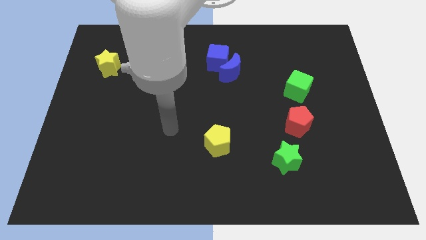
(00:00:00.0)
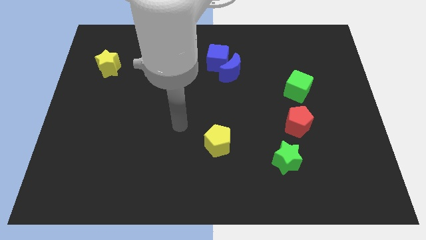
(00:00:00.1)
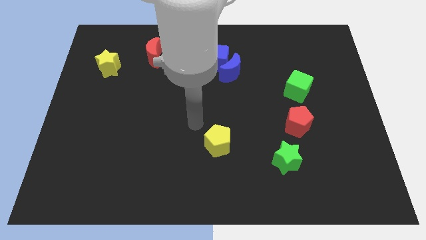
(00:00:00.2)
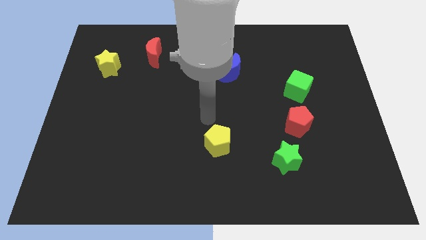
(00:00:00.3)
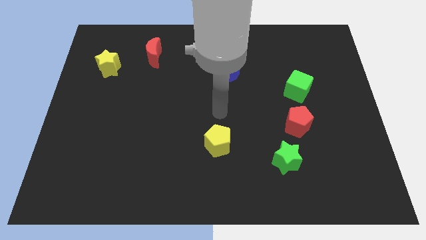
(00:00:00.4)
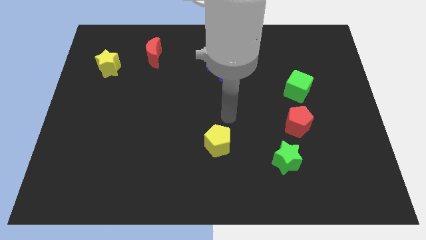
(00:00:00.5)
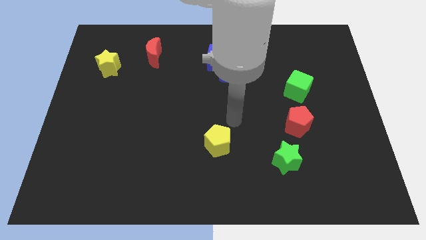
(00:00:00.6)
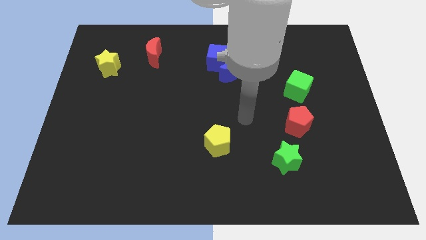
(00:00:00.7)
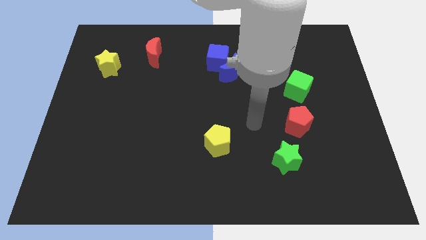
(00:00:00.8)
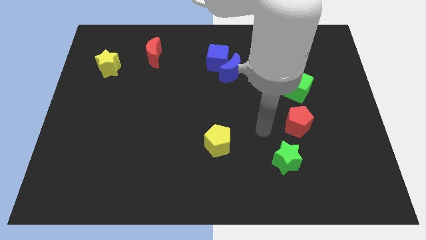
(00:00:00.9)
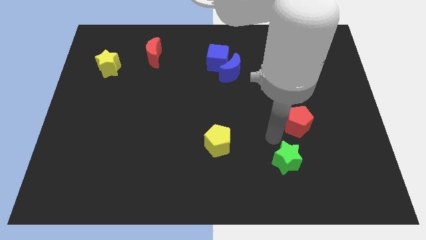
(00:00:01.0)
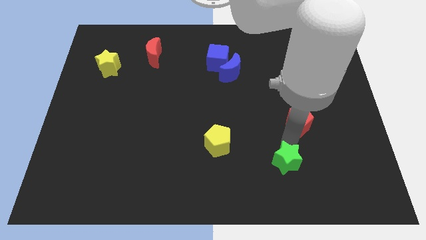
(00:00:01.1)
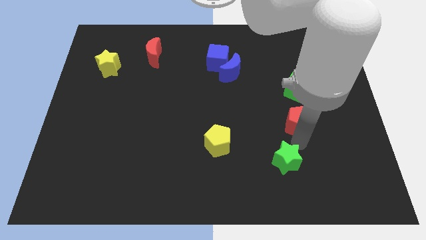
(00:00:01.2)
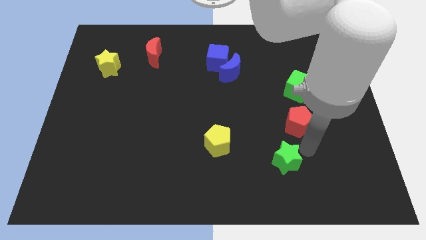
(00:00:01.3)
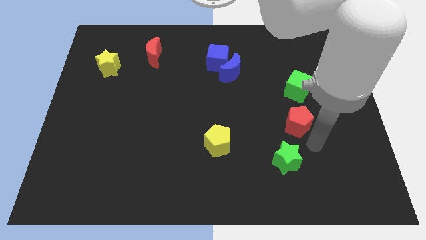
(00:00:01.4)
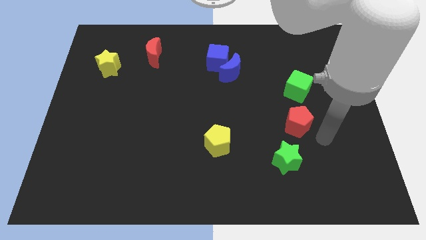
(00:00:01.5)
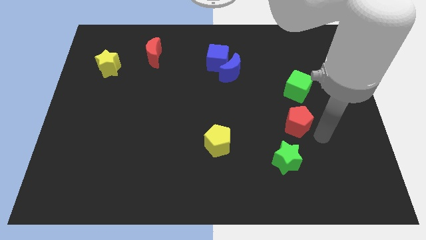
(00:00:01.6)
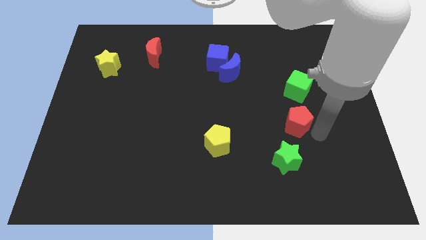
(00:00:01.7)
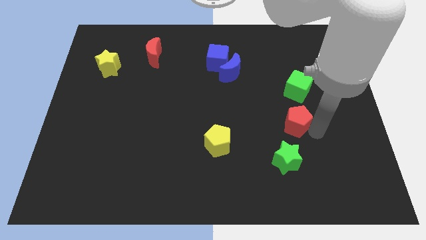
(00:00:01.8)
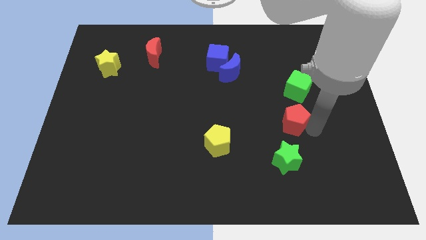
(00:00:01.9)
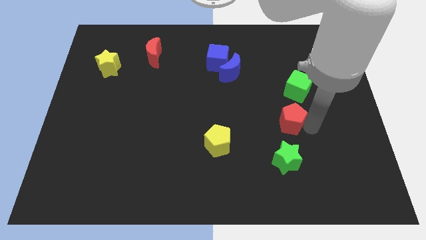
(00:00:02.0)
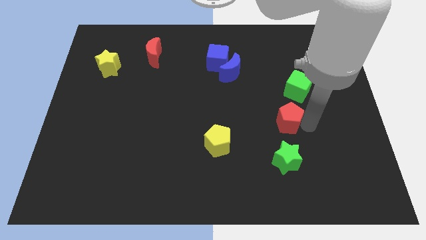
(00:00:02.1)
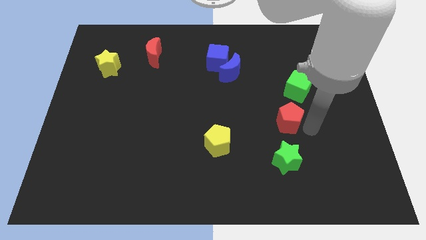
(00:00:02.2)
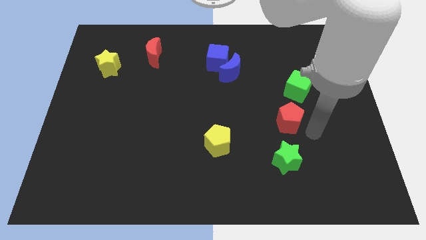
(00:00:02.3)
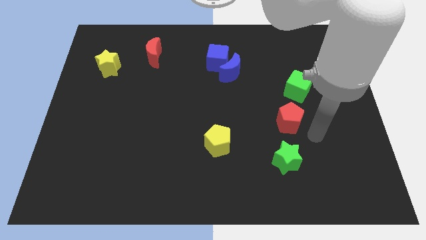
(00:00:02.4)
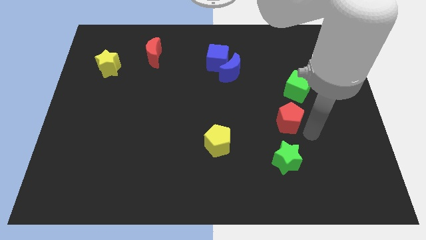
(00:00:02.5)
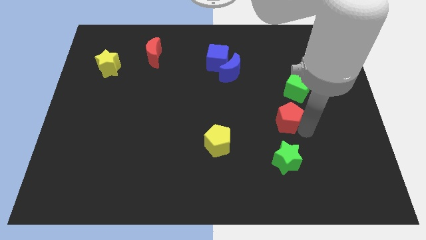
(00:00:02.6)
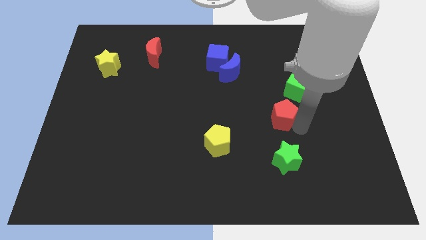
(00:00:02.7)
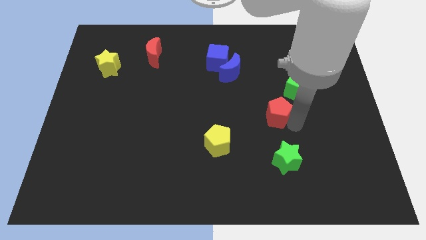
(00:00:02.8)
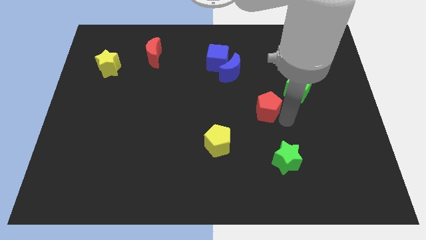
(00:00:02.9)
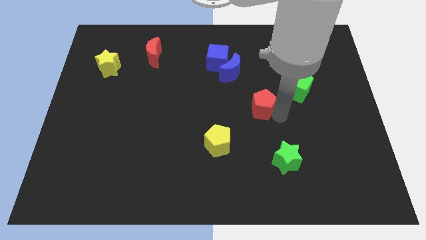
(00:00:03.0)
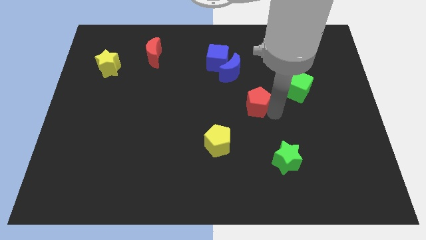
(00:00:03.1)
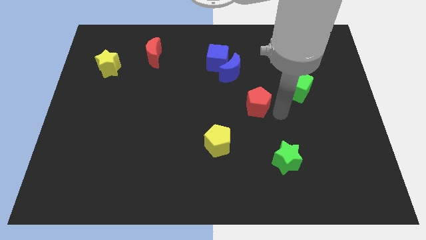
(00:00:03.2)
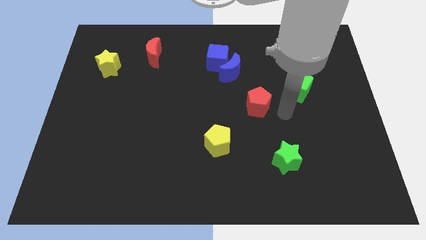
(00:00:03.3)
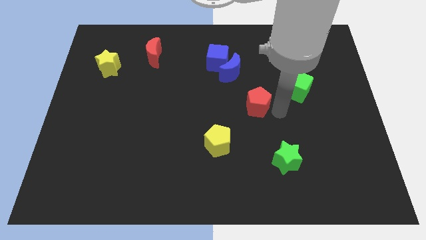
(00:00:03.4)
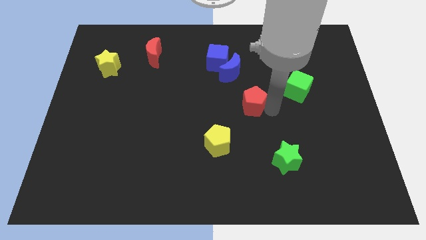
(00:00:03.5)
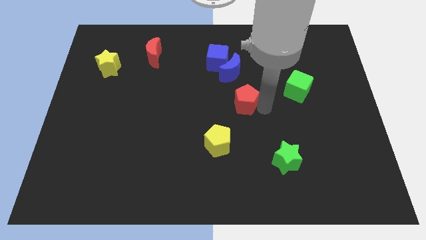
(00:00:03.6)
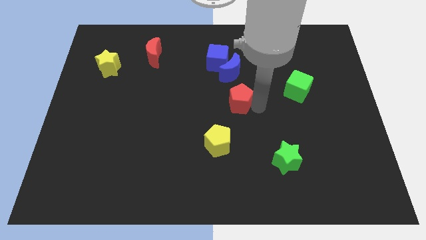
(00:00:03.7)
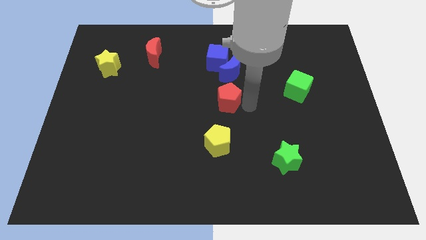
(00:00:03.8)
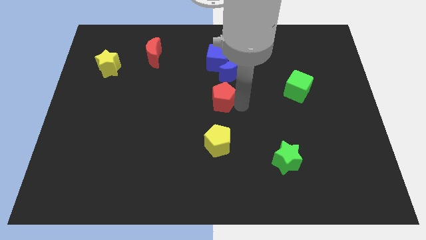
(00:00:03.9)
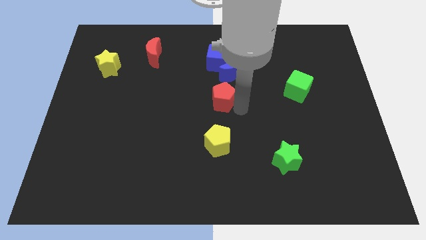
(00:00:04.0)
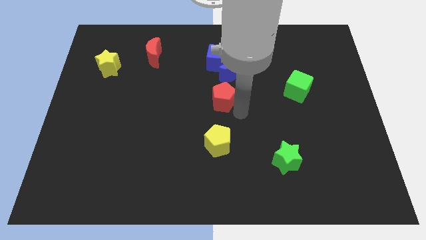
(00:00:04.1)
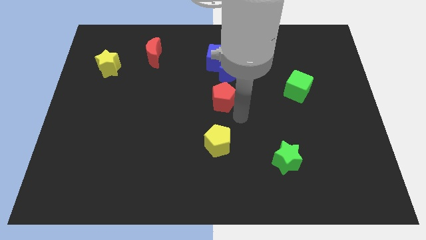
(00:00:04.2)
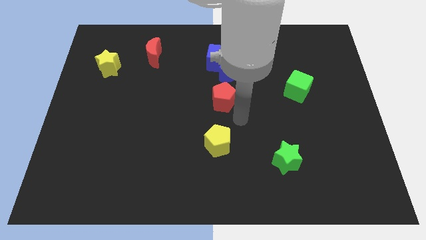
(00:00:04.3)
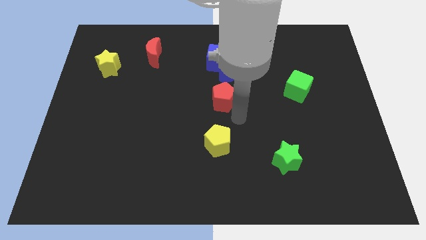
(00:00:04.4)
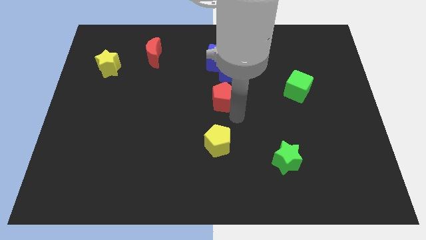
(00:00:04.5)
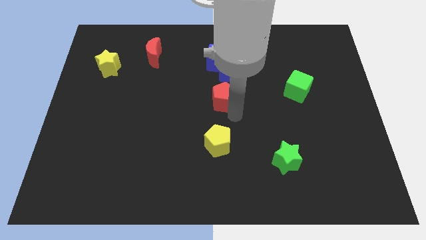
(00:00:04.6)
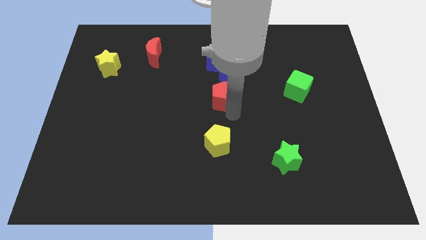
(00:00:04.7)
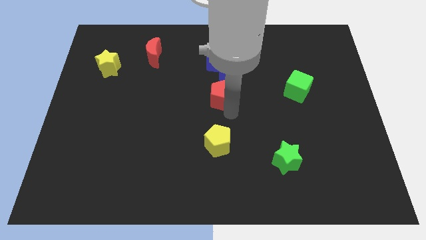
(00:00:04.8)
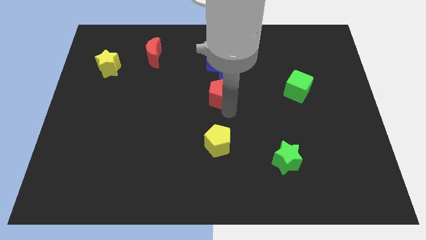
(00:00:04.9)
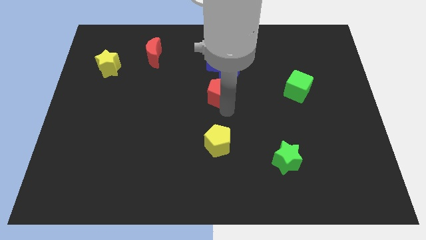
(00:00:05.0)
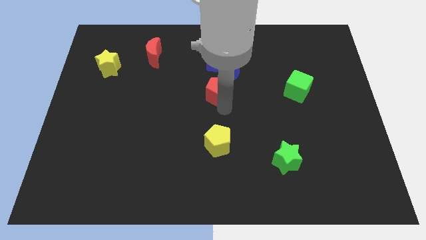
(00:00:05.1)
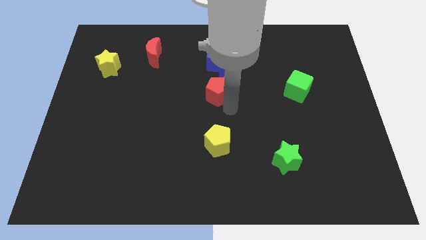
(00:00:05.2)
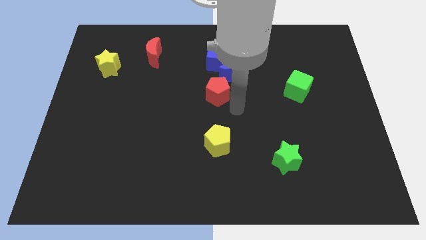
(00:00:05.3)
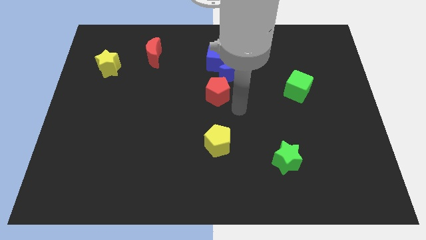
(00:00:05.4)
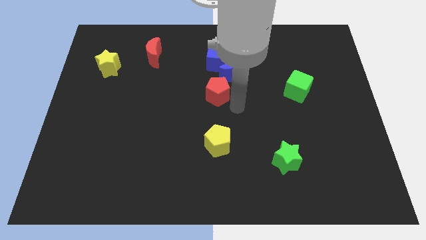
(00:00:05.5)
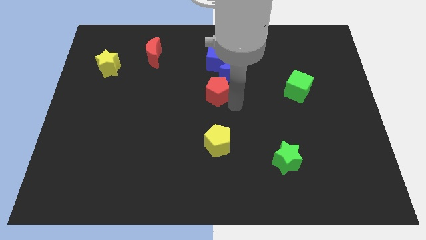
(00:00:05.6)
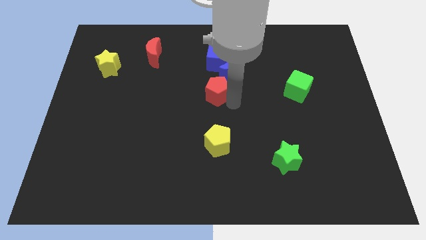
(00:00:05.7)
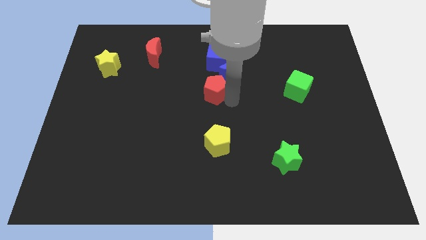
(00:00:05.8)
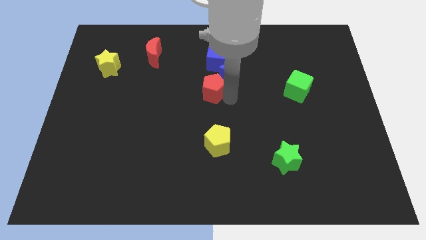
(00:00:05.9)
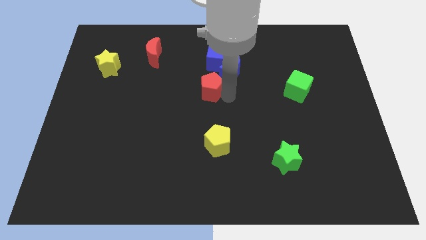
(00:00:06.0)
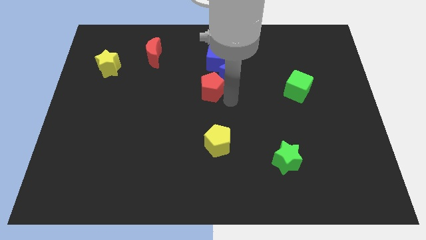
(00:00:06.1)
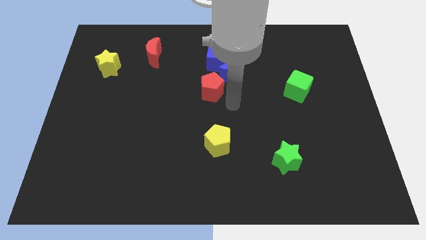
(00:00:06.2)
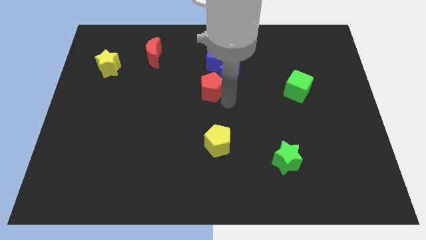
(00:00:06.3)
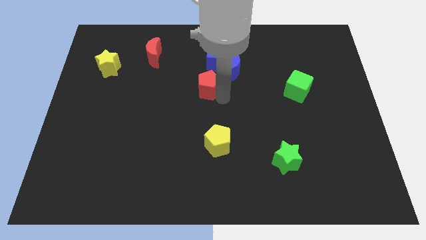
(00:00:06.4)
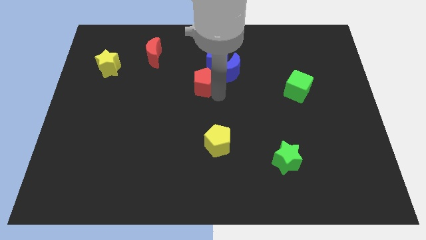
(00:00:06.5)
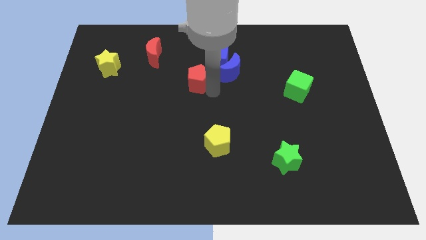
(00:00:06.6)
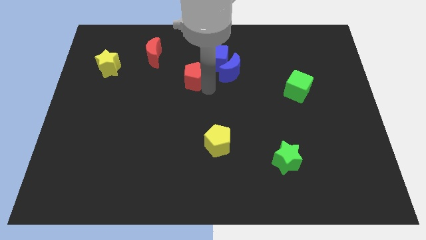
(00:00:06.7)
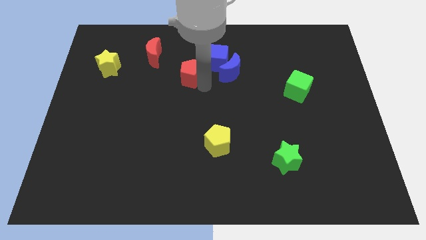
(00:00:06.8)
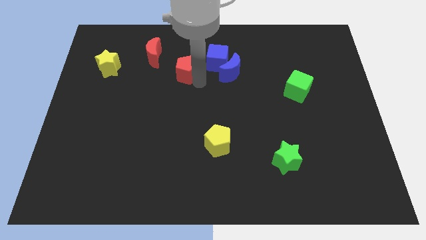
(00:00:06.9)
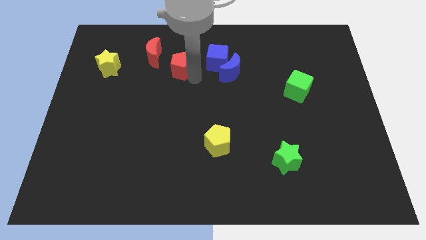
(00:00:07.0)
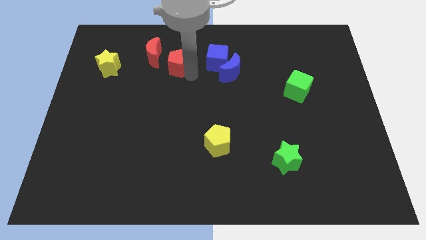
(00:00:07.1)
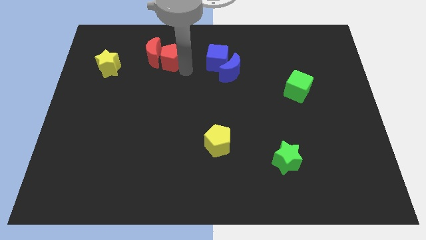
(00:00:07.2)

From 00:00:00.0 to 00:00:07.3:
move the red pentagon next to the red moon

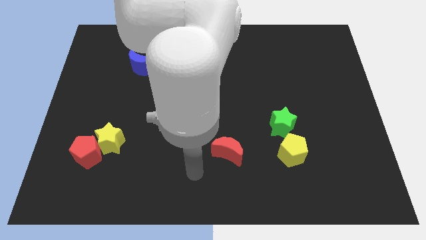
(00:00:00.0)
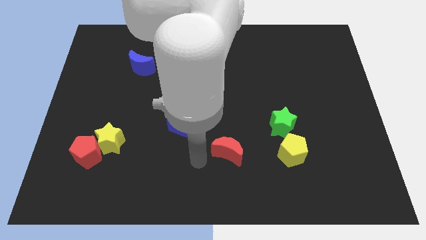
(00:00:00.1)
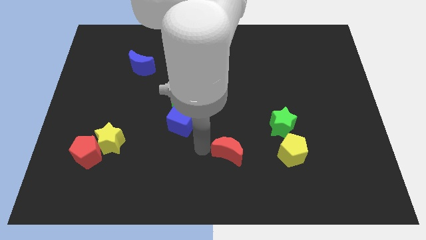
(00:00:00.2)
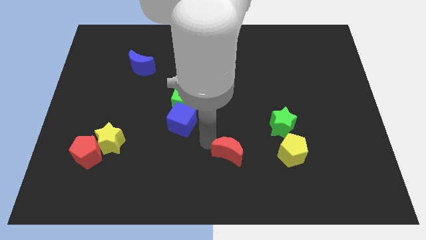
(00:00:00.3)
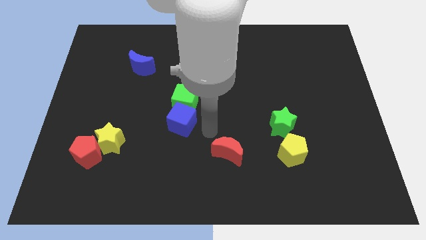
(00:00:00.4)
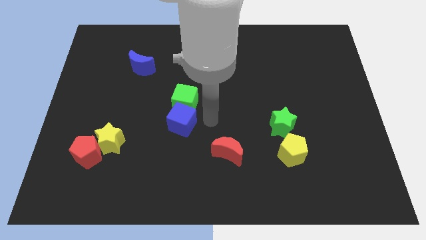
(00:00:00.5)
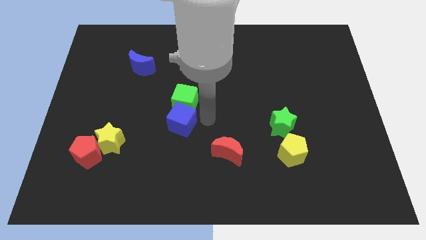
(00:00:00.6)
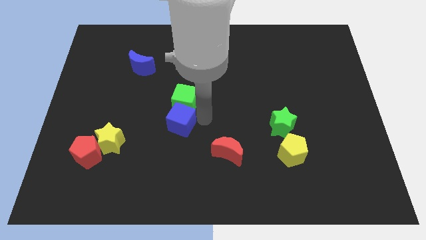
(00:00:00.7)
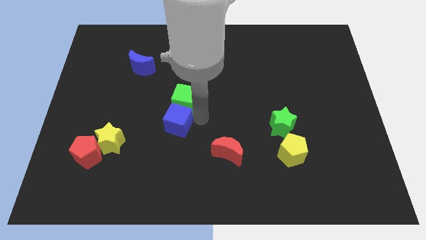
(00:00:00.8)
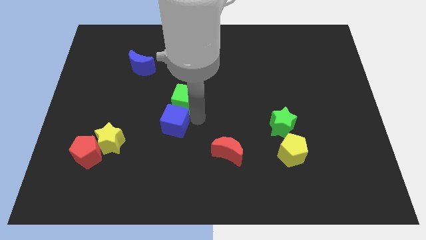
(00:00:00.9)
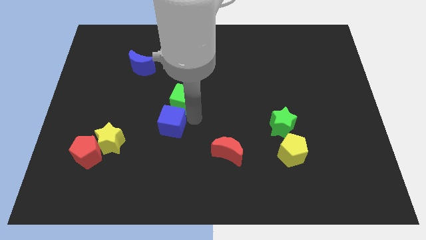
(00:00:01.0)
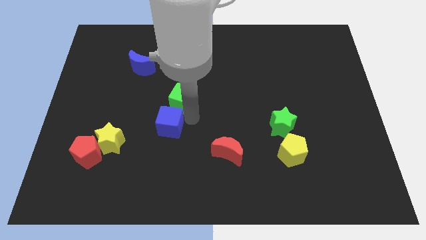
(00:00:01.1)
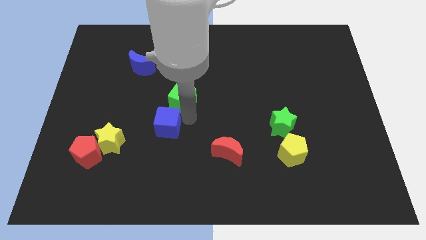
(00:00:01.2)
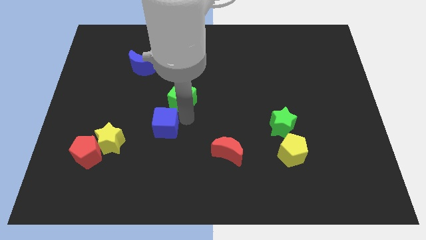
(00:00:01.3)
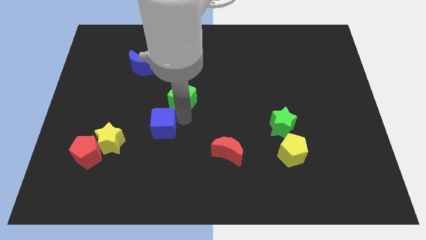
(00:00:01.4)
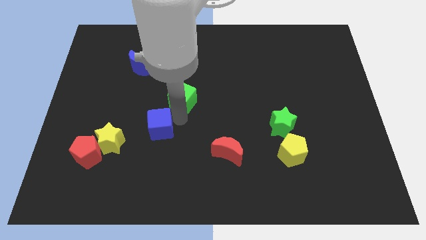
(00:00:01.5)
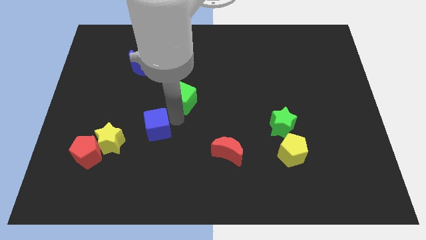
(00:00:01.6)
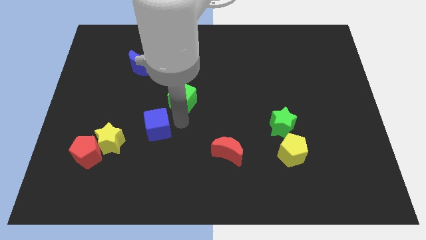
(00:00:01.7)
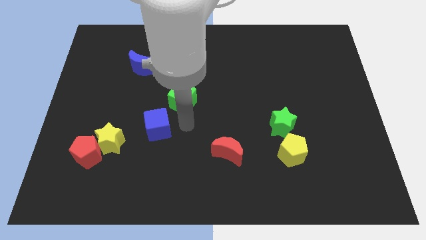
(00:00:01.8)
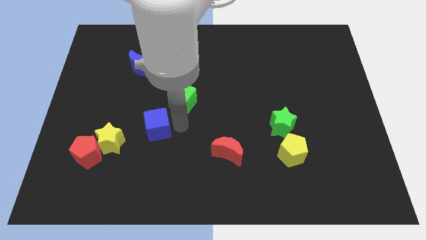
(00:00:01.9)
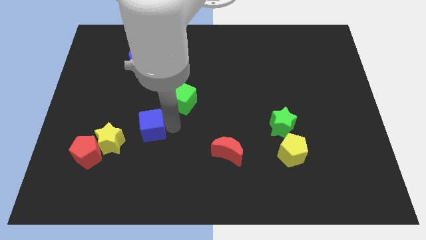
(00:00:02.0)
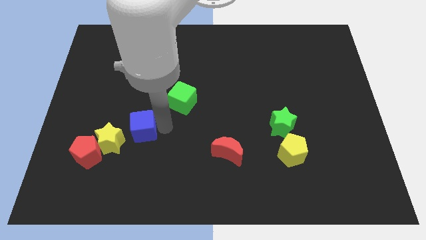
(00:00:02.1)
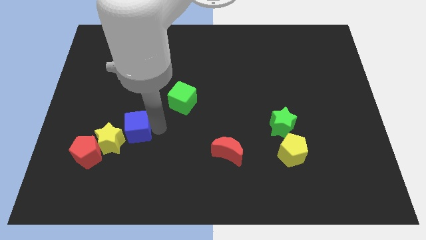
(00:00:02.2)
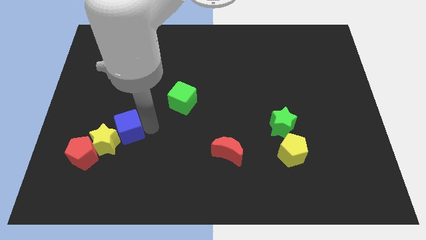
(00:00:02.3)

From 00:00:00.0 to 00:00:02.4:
move the blue cube to the yellow star
